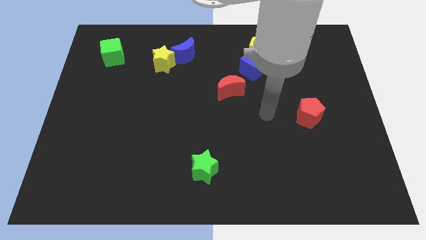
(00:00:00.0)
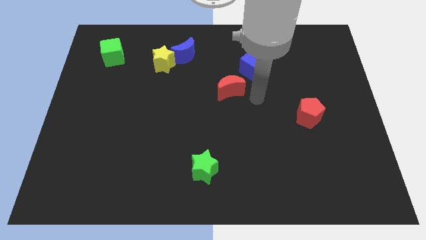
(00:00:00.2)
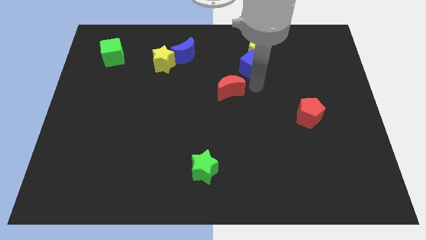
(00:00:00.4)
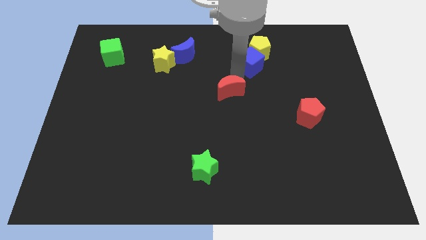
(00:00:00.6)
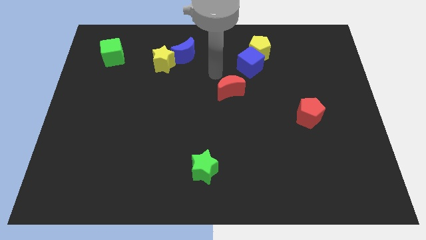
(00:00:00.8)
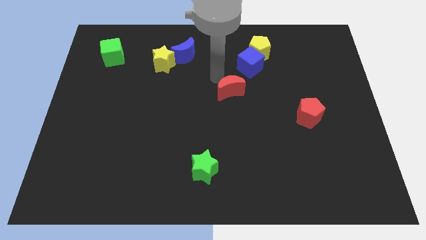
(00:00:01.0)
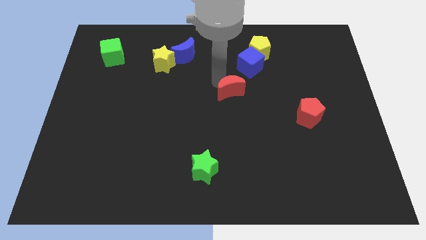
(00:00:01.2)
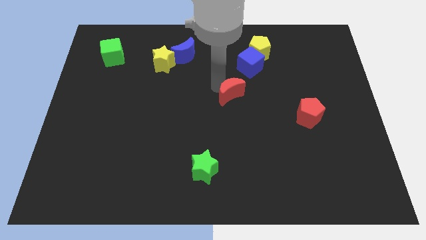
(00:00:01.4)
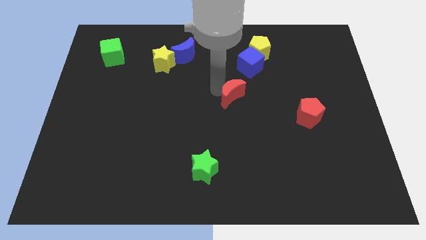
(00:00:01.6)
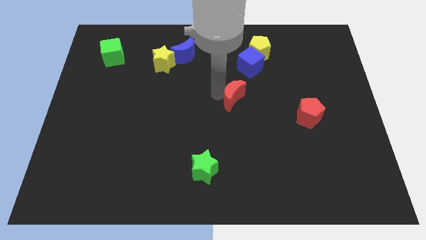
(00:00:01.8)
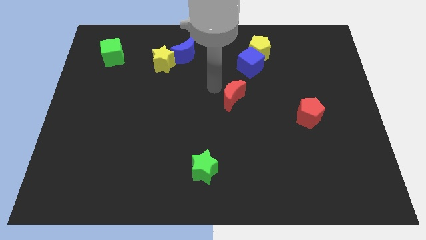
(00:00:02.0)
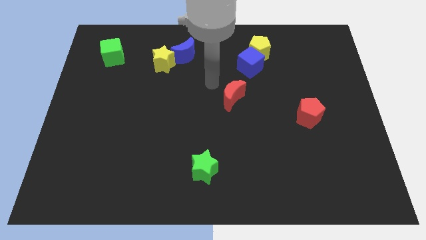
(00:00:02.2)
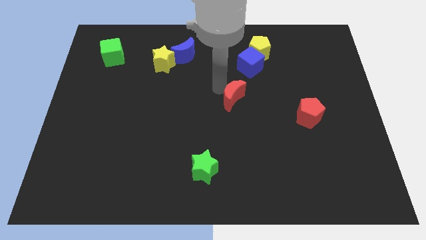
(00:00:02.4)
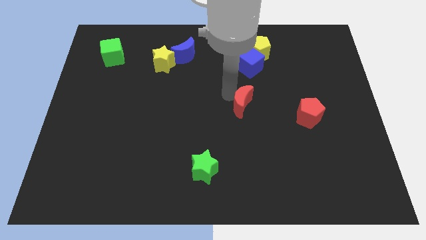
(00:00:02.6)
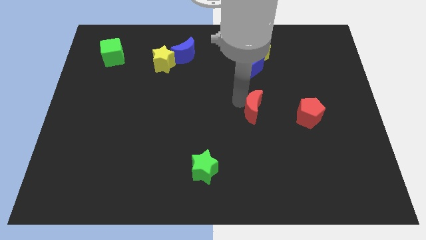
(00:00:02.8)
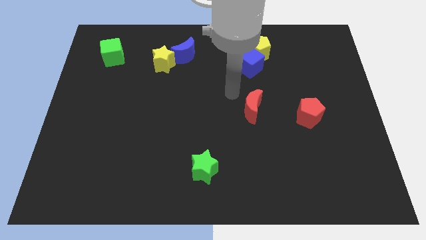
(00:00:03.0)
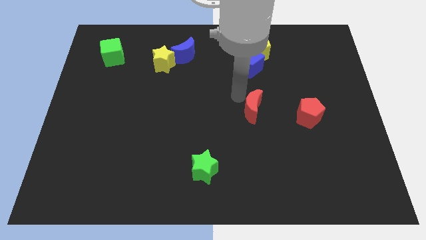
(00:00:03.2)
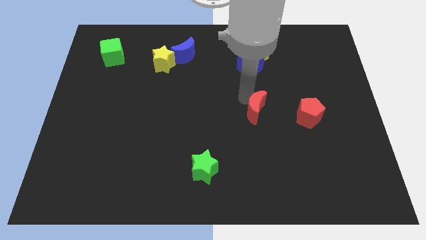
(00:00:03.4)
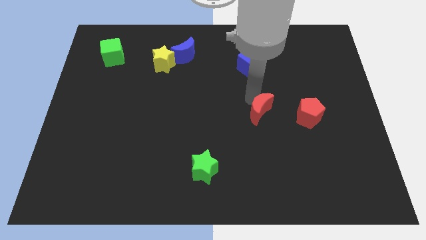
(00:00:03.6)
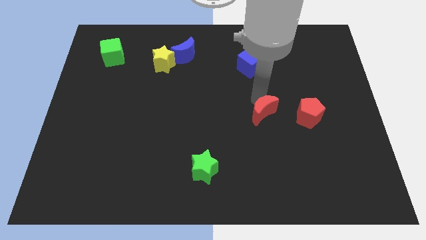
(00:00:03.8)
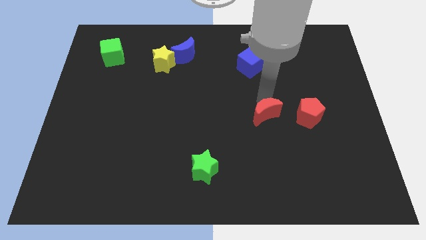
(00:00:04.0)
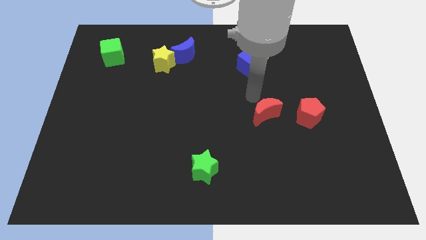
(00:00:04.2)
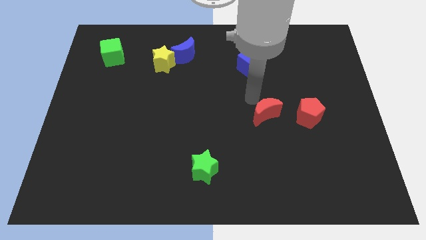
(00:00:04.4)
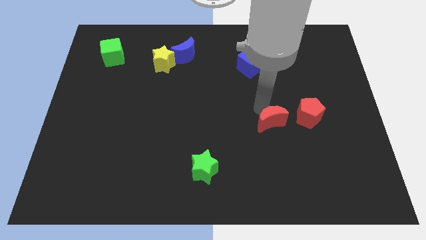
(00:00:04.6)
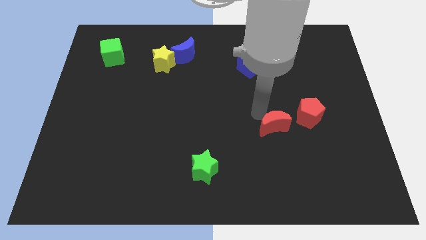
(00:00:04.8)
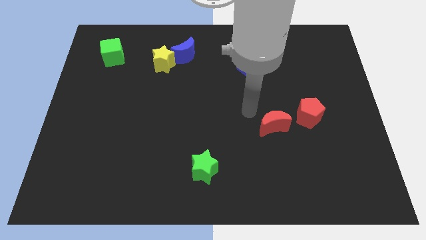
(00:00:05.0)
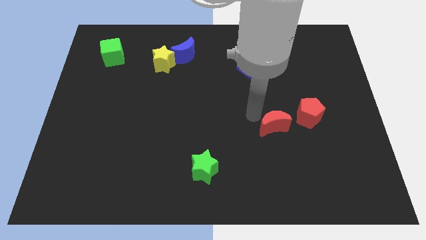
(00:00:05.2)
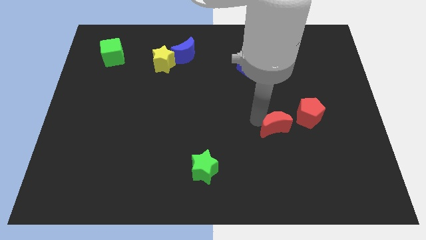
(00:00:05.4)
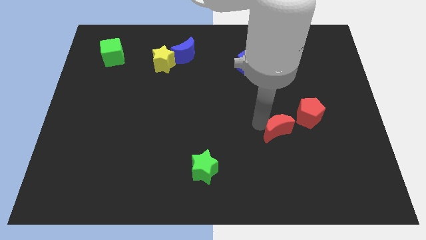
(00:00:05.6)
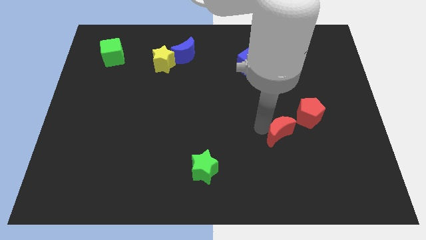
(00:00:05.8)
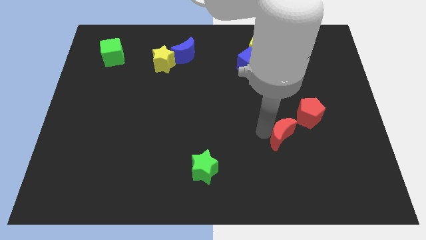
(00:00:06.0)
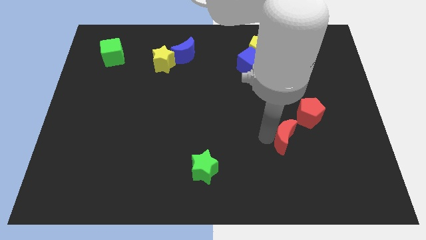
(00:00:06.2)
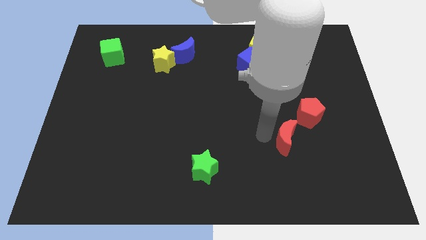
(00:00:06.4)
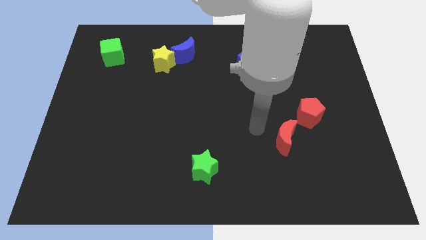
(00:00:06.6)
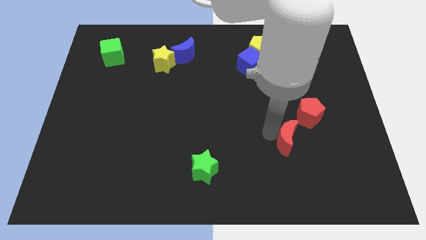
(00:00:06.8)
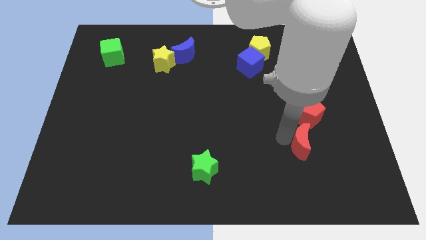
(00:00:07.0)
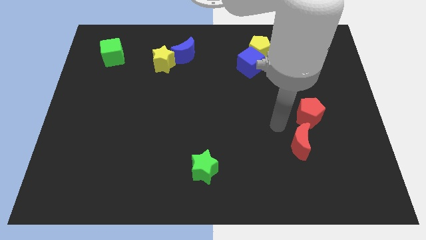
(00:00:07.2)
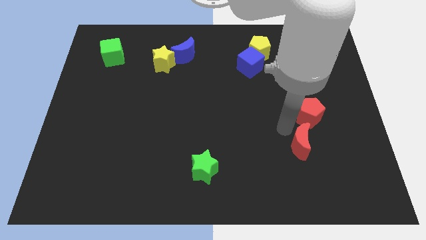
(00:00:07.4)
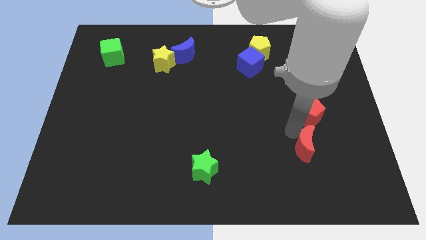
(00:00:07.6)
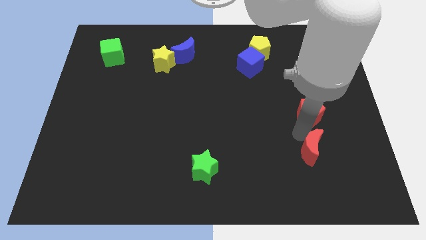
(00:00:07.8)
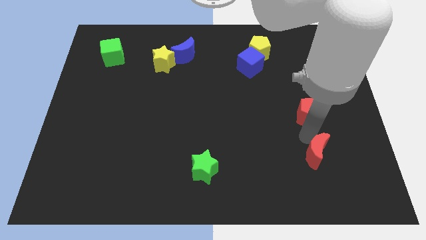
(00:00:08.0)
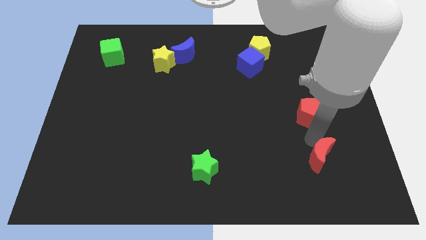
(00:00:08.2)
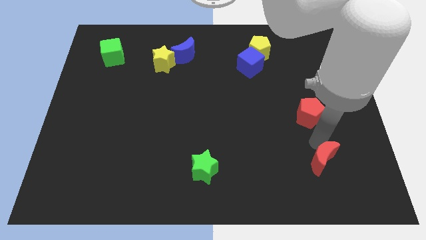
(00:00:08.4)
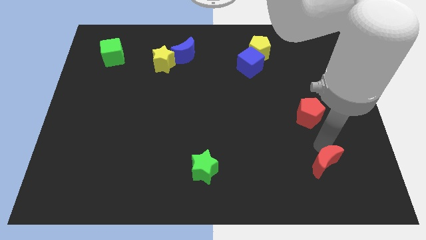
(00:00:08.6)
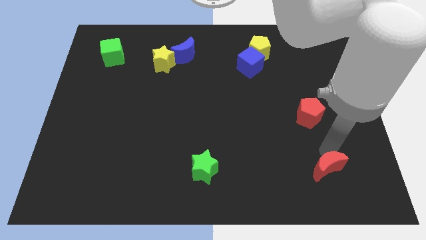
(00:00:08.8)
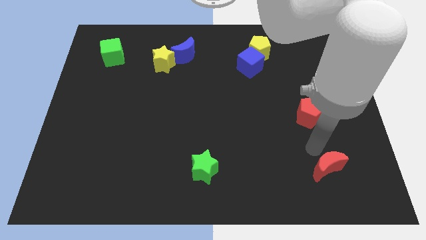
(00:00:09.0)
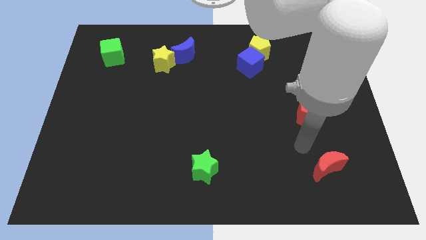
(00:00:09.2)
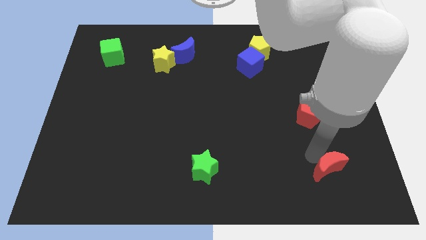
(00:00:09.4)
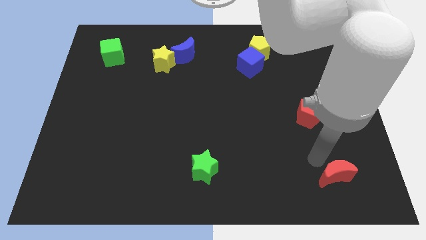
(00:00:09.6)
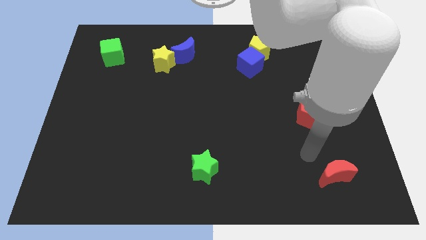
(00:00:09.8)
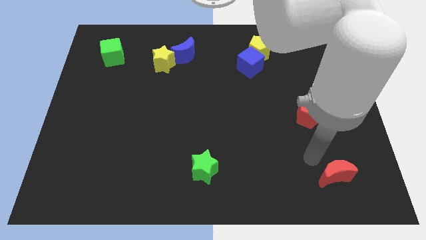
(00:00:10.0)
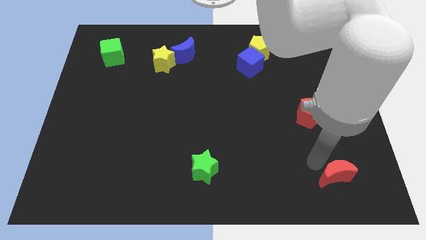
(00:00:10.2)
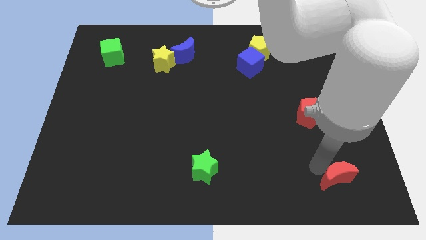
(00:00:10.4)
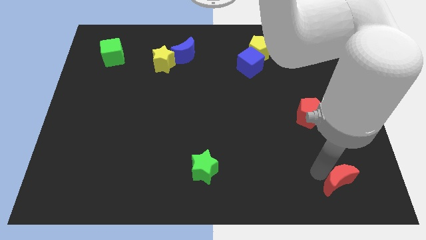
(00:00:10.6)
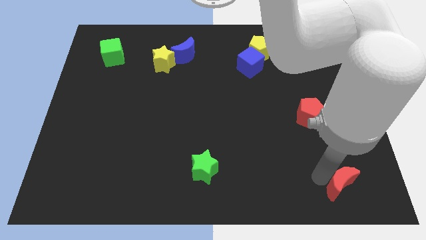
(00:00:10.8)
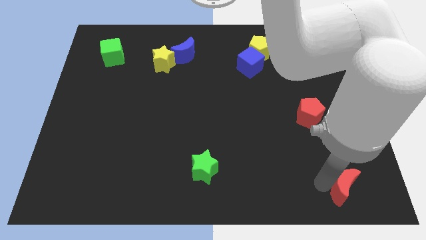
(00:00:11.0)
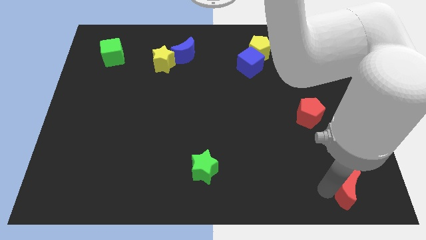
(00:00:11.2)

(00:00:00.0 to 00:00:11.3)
move the red moon to the lower right corner

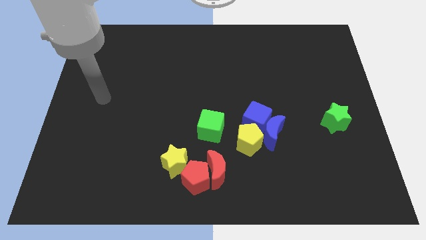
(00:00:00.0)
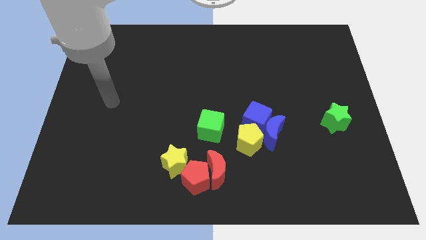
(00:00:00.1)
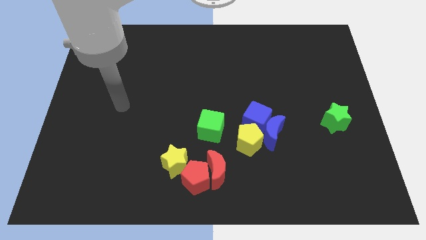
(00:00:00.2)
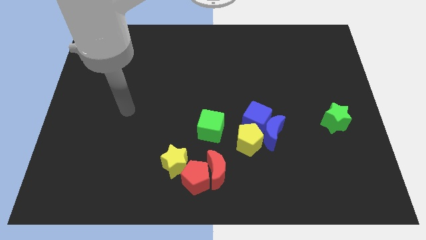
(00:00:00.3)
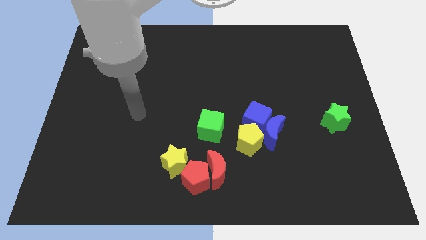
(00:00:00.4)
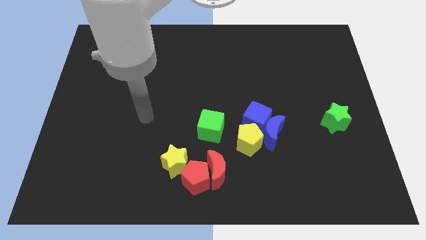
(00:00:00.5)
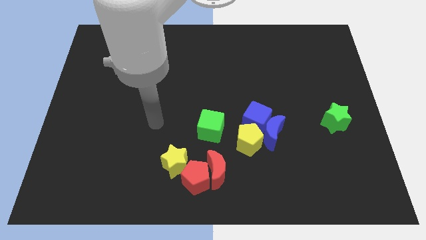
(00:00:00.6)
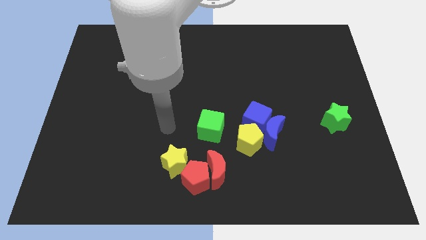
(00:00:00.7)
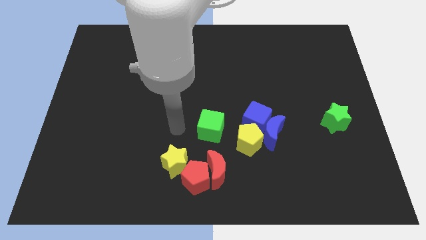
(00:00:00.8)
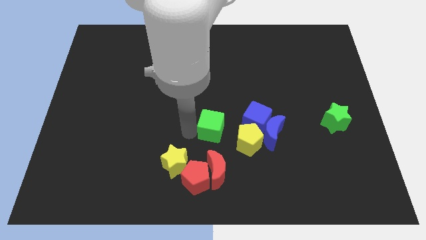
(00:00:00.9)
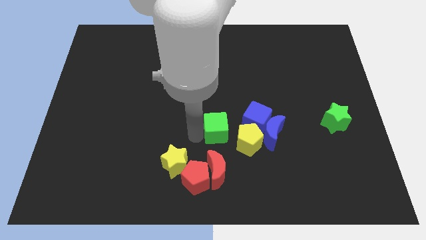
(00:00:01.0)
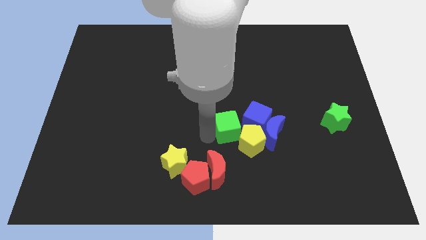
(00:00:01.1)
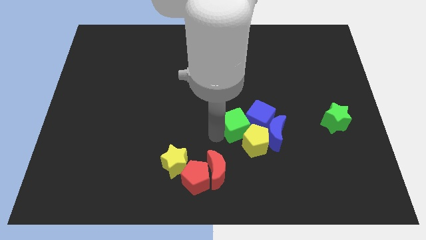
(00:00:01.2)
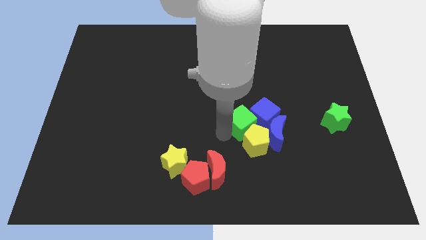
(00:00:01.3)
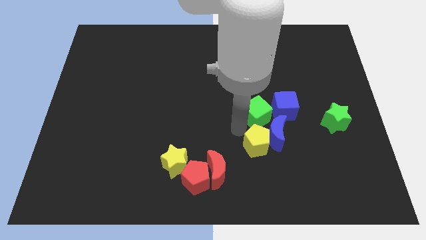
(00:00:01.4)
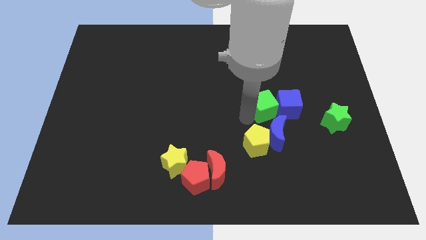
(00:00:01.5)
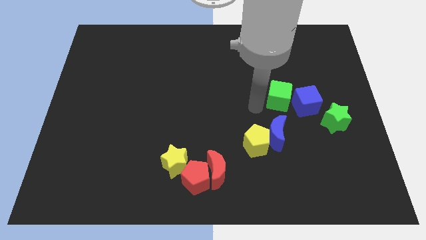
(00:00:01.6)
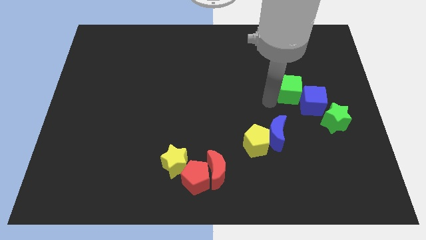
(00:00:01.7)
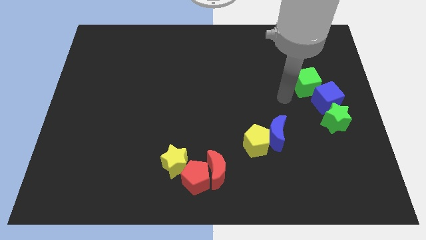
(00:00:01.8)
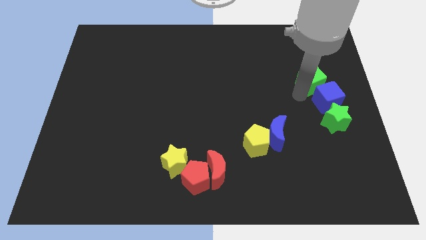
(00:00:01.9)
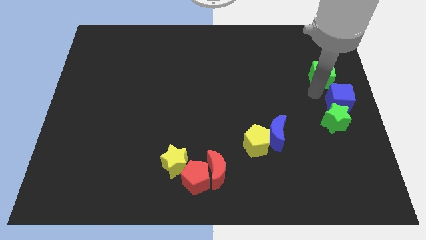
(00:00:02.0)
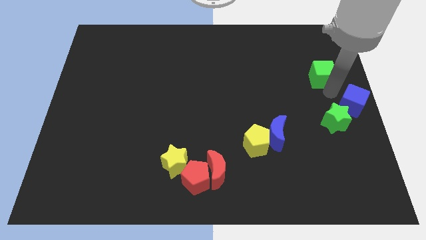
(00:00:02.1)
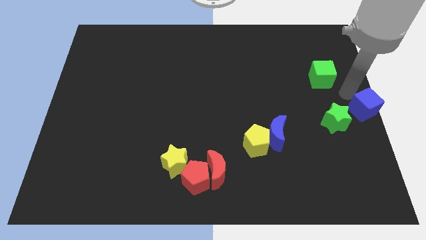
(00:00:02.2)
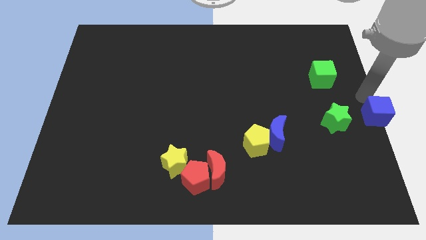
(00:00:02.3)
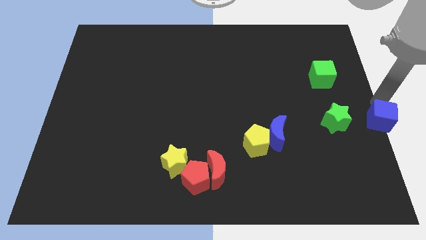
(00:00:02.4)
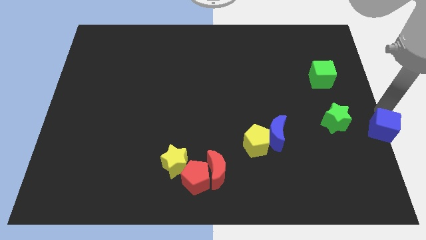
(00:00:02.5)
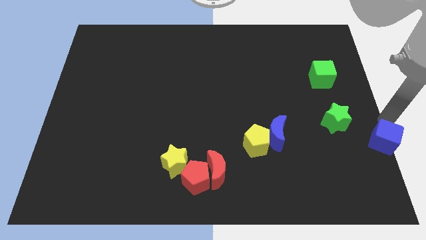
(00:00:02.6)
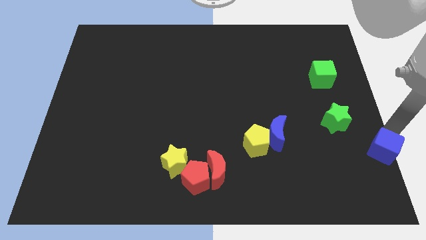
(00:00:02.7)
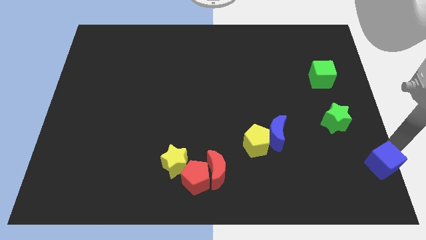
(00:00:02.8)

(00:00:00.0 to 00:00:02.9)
push the blue cube to the lower right corner
